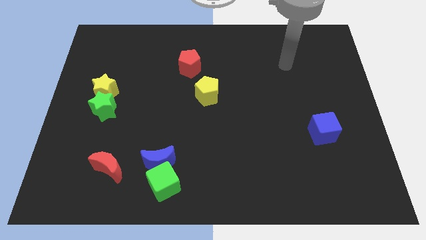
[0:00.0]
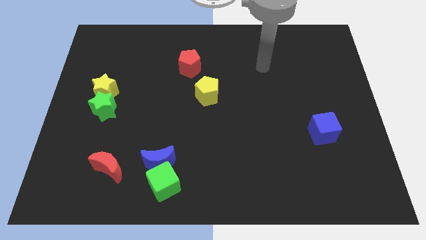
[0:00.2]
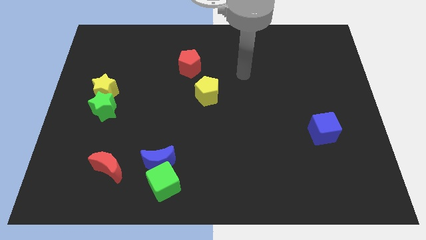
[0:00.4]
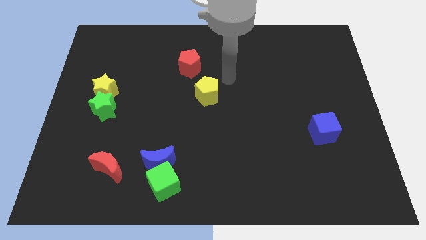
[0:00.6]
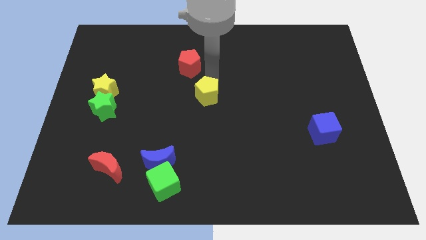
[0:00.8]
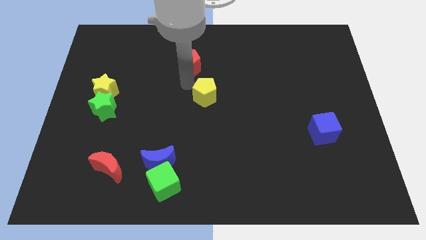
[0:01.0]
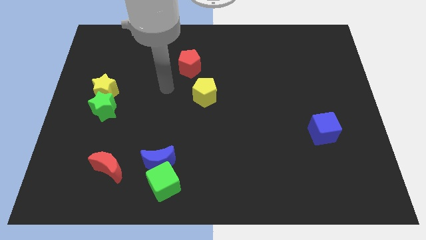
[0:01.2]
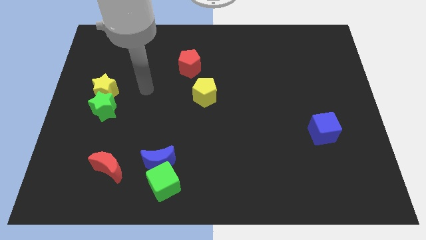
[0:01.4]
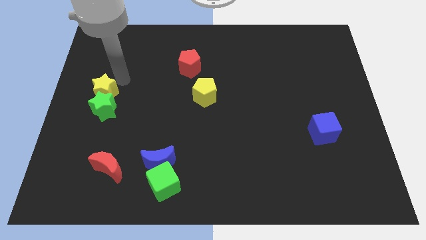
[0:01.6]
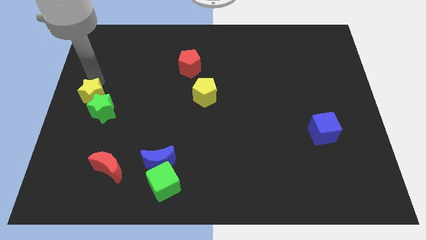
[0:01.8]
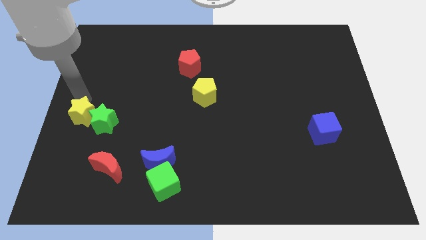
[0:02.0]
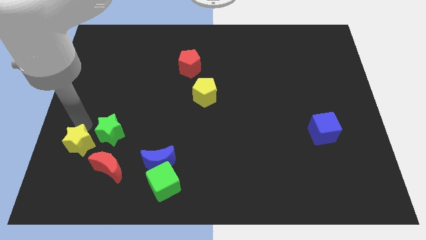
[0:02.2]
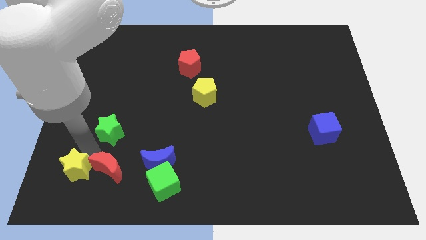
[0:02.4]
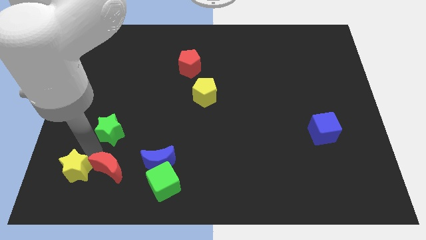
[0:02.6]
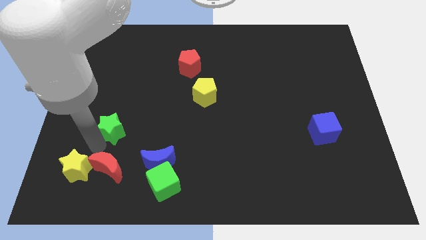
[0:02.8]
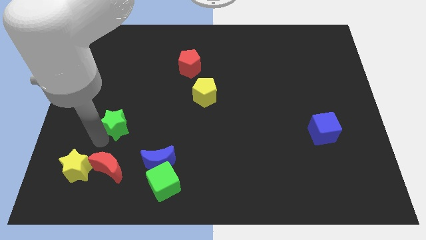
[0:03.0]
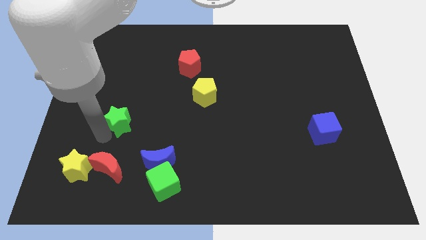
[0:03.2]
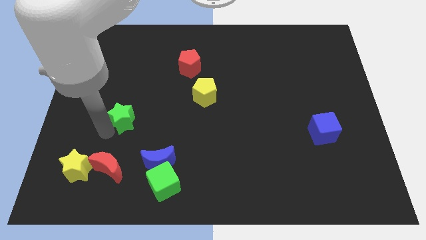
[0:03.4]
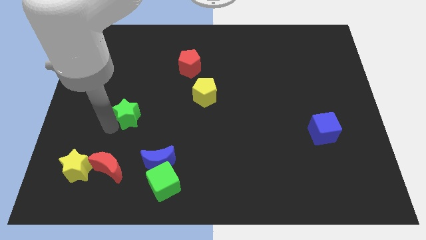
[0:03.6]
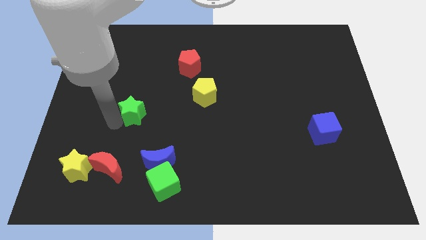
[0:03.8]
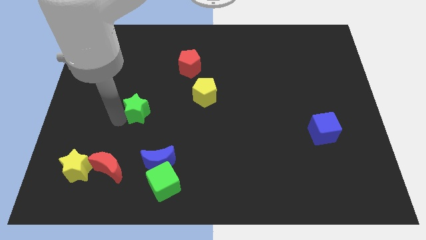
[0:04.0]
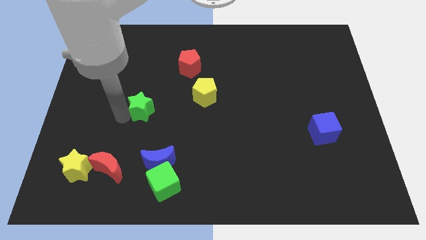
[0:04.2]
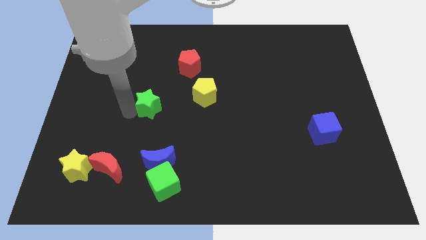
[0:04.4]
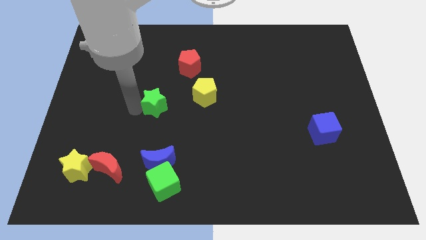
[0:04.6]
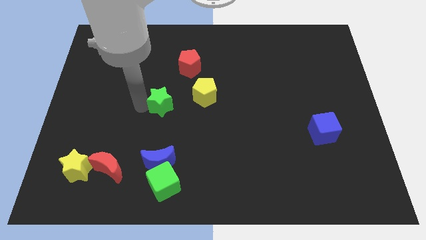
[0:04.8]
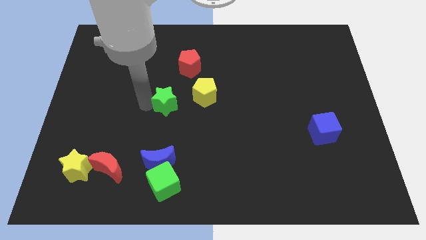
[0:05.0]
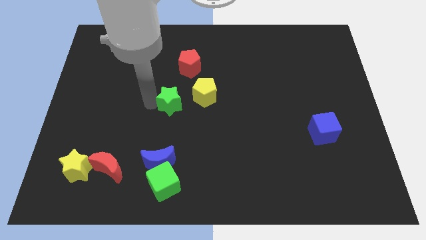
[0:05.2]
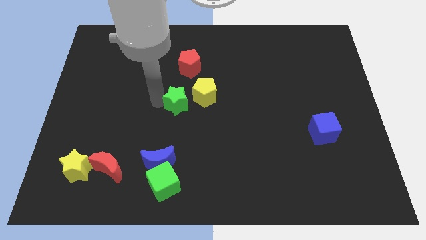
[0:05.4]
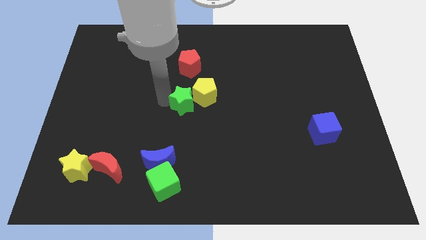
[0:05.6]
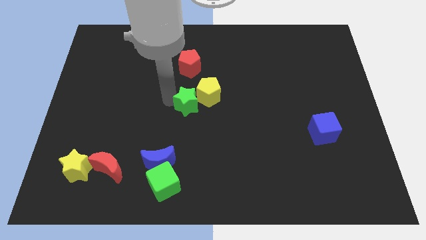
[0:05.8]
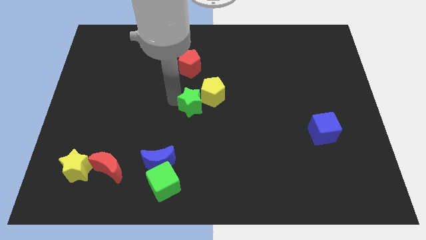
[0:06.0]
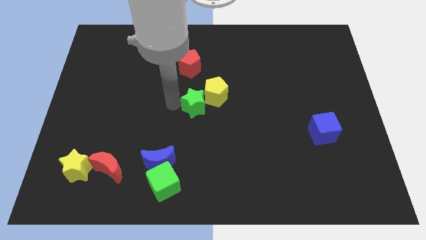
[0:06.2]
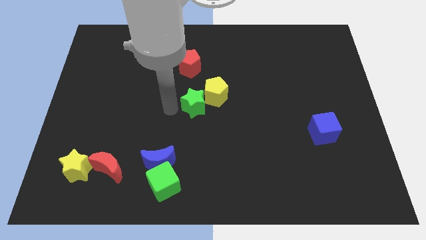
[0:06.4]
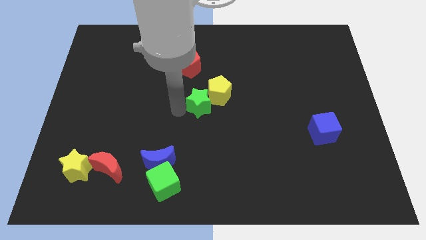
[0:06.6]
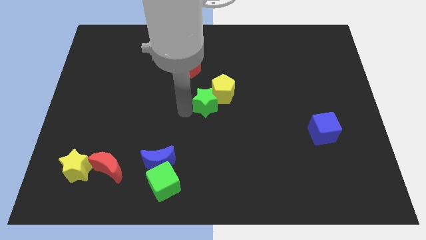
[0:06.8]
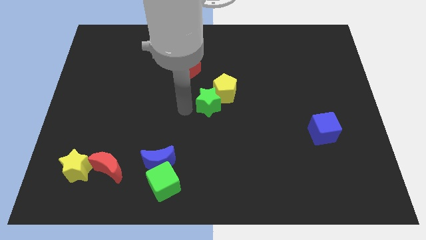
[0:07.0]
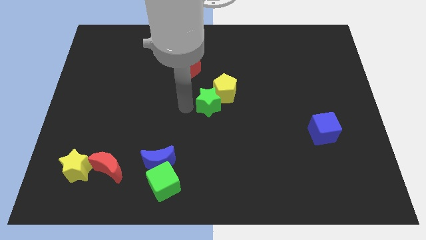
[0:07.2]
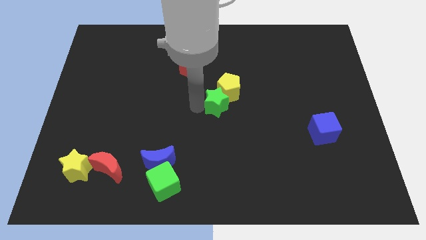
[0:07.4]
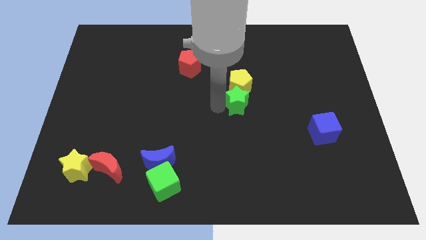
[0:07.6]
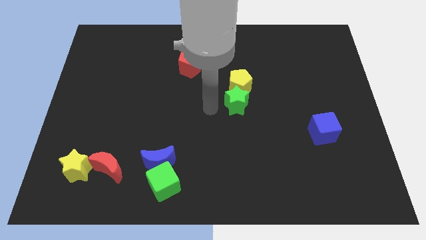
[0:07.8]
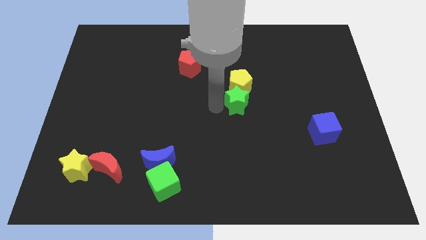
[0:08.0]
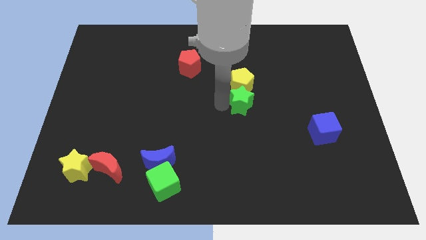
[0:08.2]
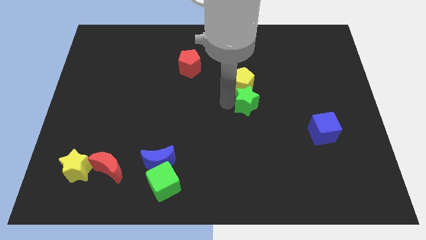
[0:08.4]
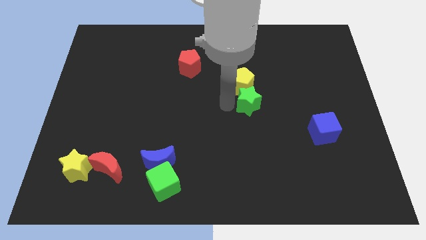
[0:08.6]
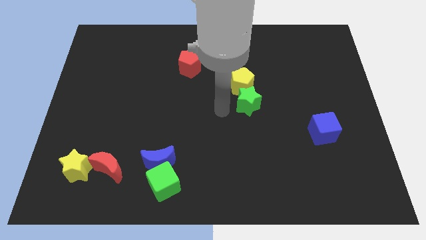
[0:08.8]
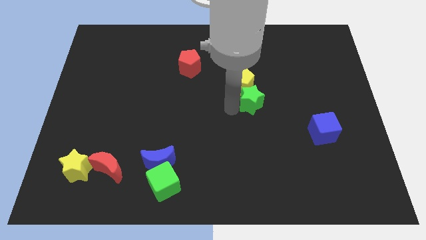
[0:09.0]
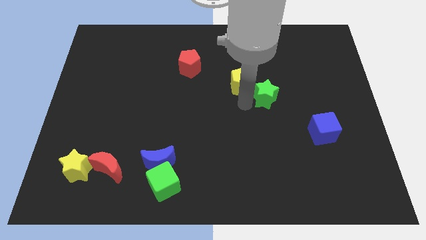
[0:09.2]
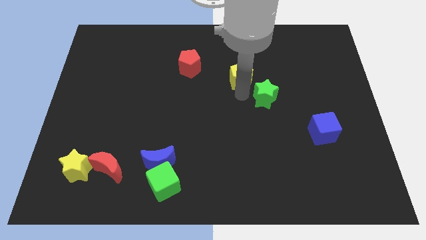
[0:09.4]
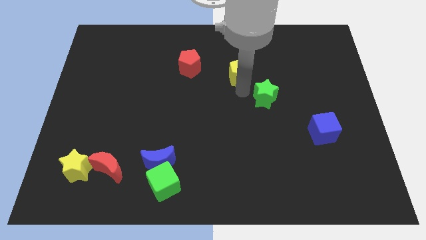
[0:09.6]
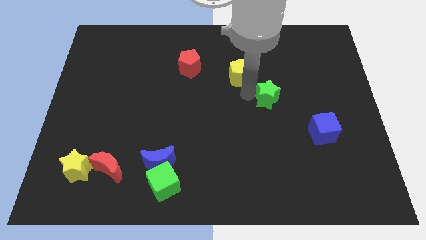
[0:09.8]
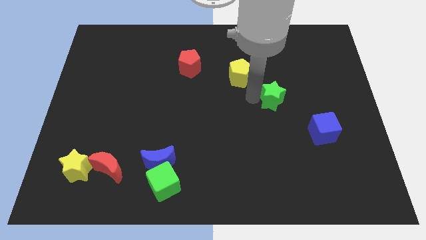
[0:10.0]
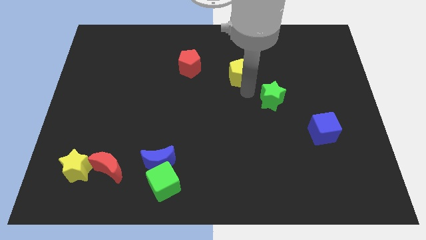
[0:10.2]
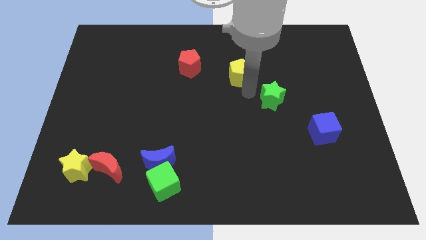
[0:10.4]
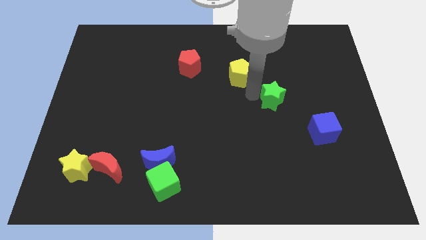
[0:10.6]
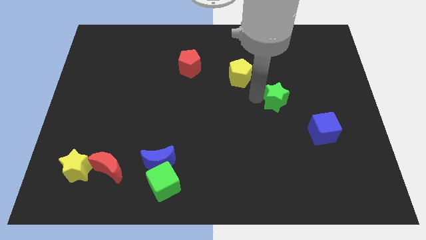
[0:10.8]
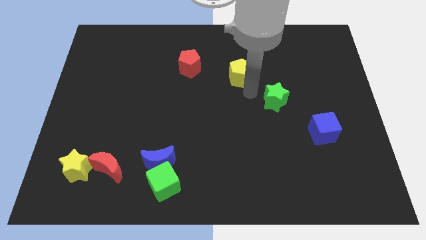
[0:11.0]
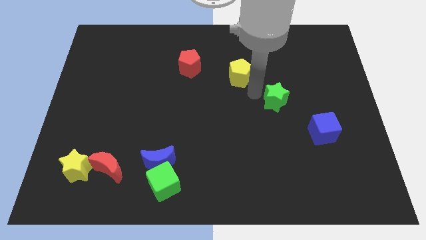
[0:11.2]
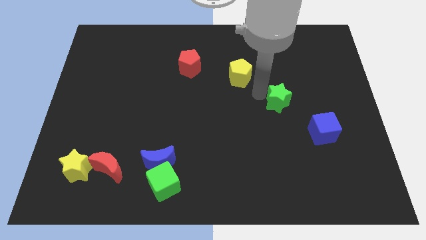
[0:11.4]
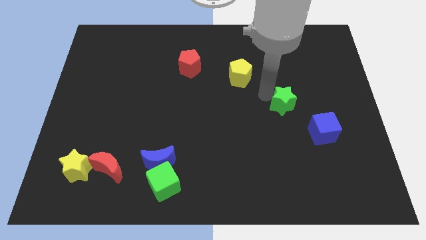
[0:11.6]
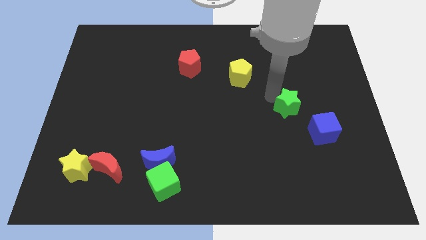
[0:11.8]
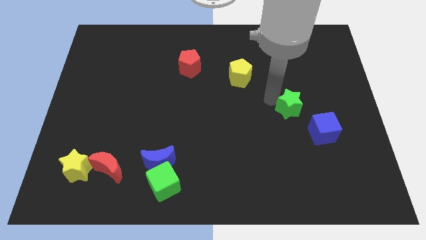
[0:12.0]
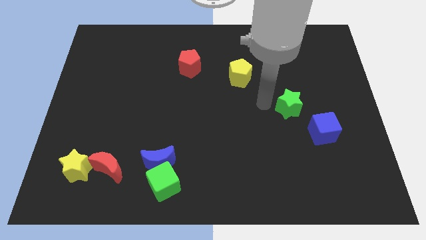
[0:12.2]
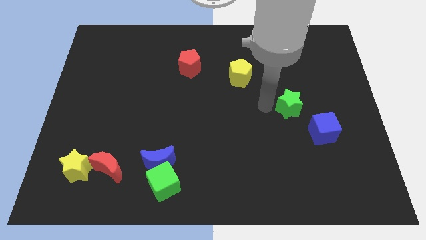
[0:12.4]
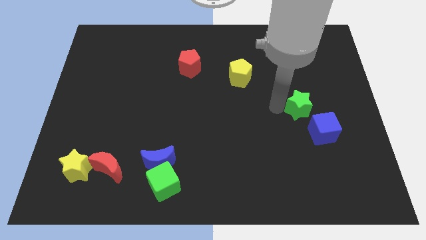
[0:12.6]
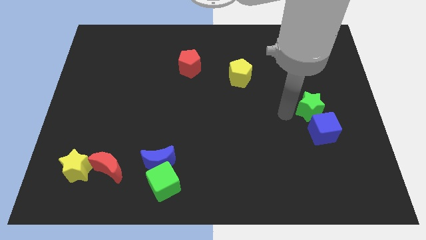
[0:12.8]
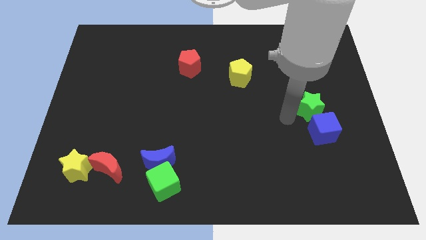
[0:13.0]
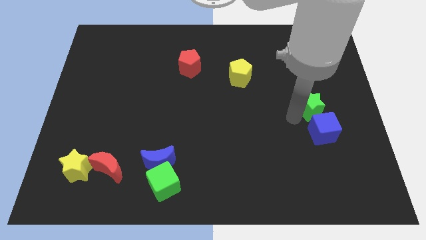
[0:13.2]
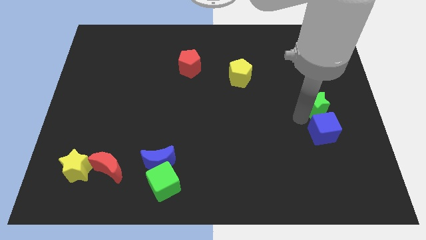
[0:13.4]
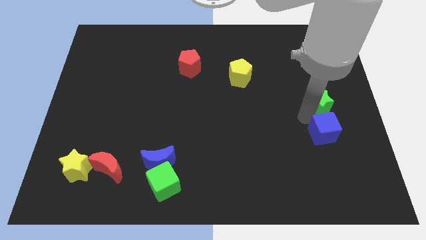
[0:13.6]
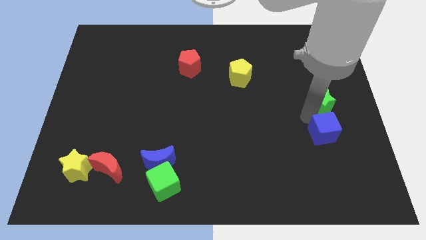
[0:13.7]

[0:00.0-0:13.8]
slide the green star to the right side
